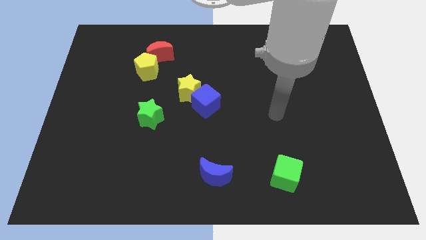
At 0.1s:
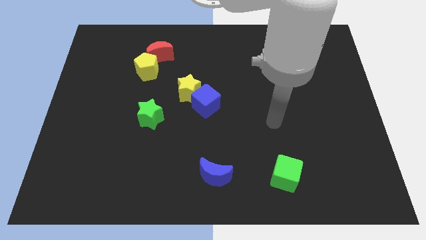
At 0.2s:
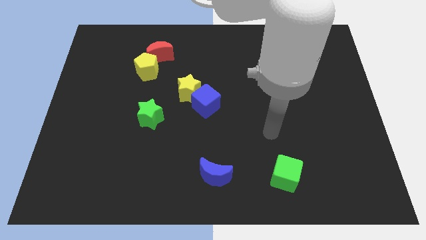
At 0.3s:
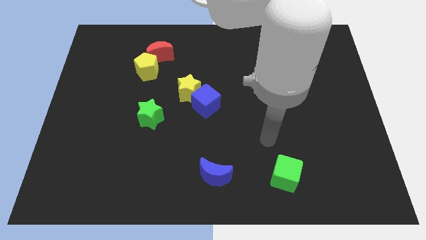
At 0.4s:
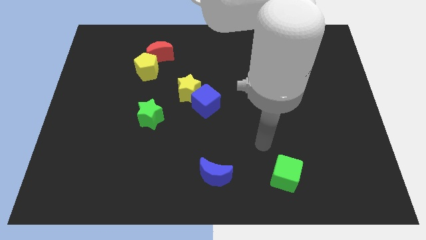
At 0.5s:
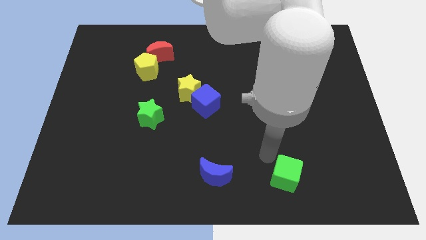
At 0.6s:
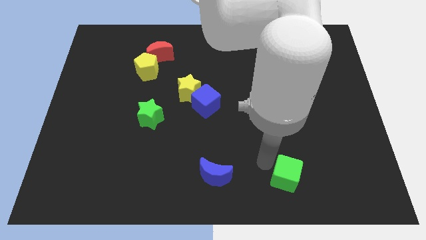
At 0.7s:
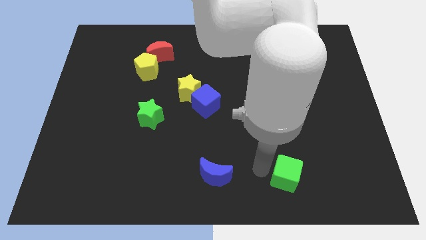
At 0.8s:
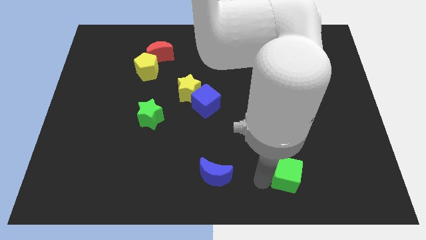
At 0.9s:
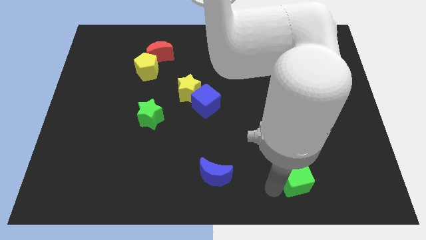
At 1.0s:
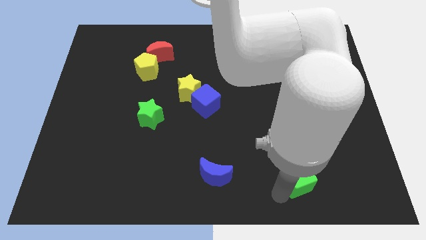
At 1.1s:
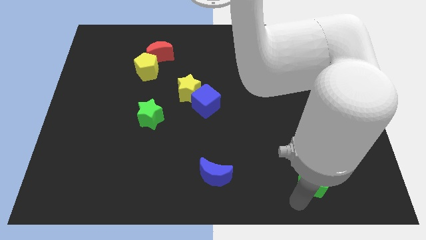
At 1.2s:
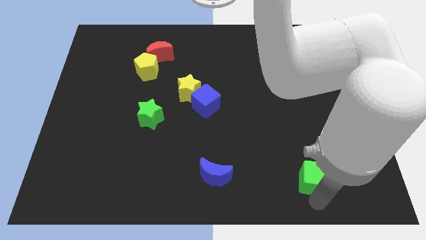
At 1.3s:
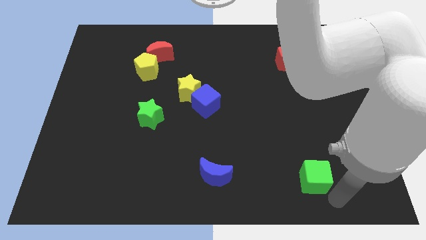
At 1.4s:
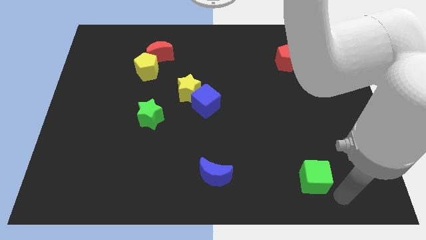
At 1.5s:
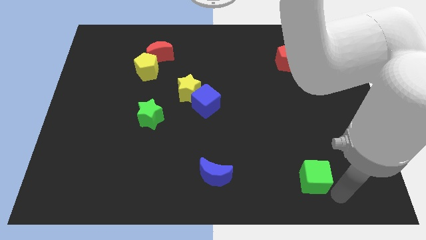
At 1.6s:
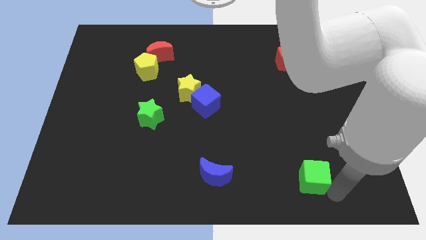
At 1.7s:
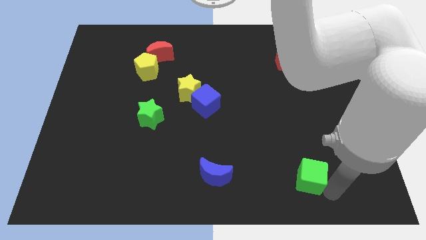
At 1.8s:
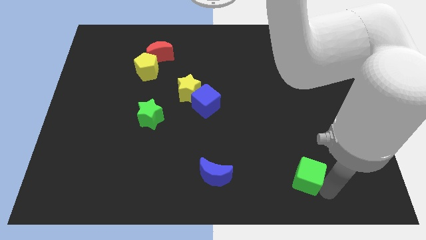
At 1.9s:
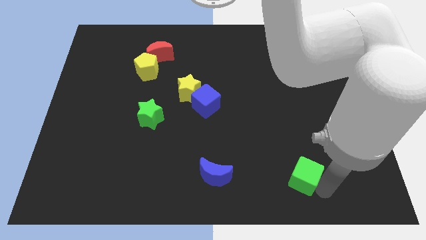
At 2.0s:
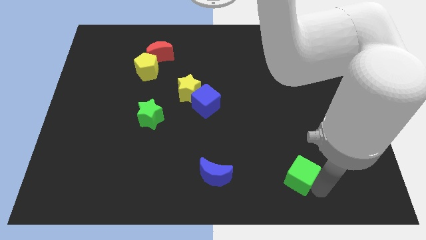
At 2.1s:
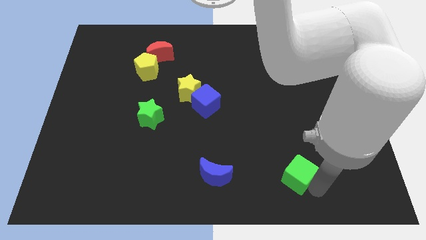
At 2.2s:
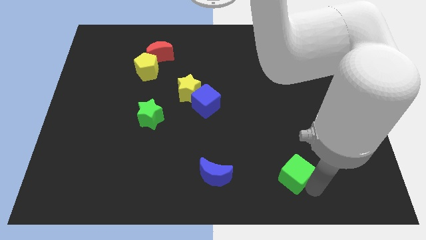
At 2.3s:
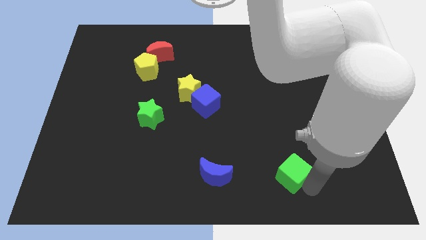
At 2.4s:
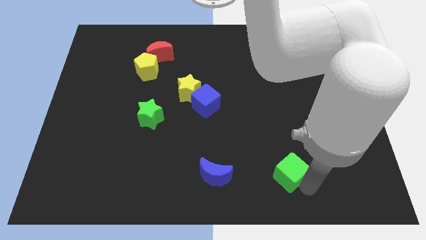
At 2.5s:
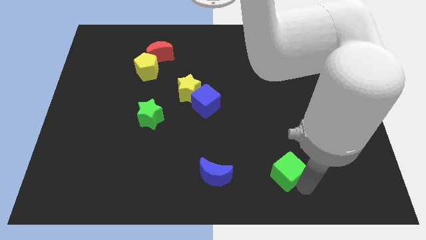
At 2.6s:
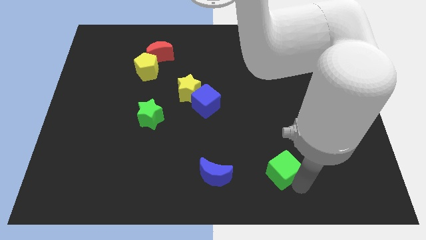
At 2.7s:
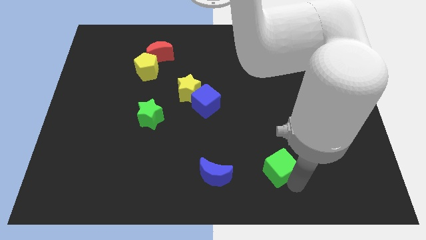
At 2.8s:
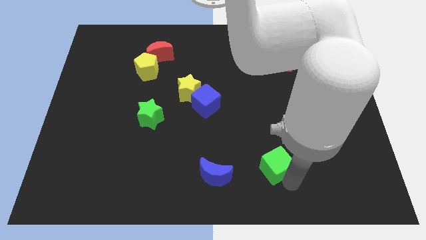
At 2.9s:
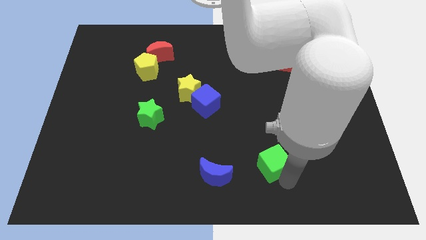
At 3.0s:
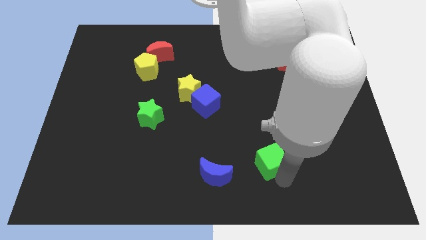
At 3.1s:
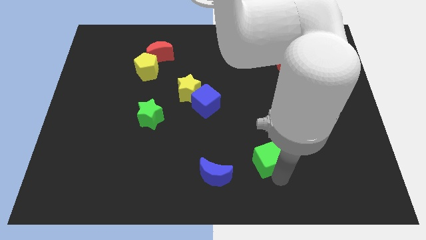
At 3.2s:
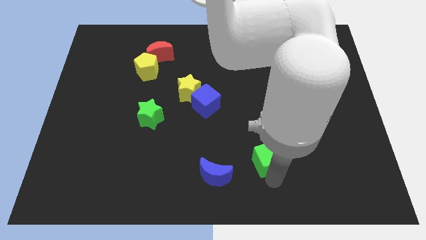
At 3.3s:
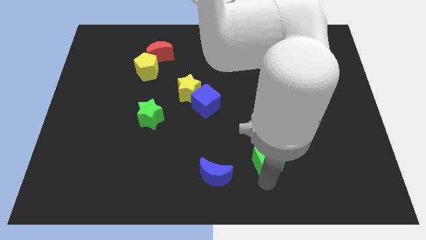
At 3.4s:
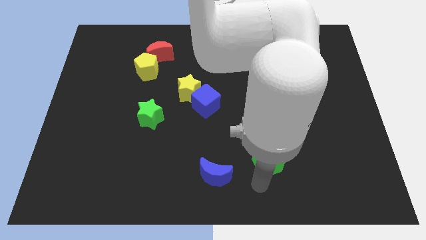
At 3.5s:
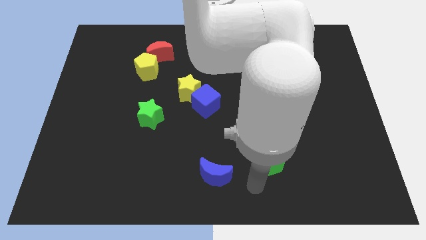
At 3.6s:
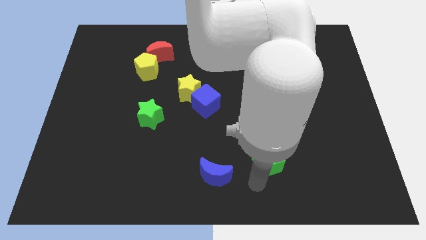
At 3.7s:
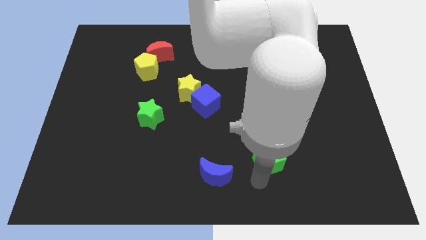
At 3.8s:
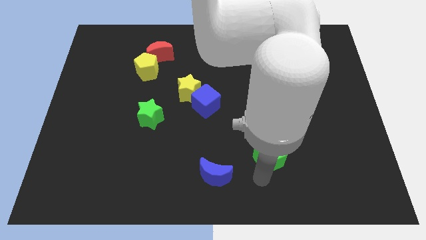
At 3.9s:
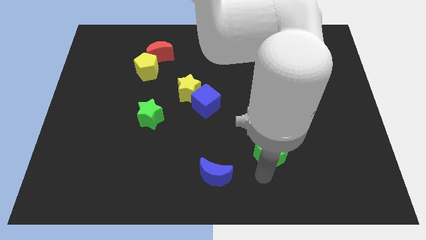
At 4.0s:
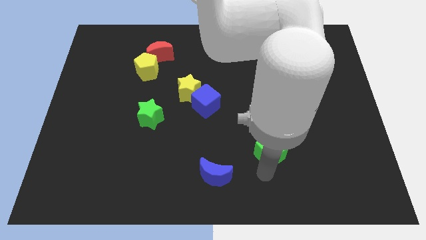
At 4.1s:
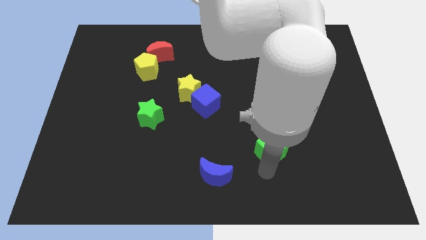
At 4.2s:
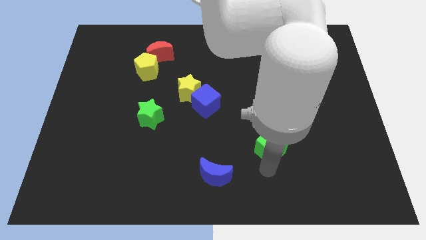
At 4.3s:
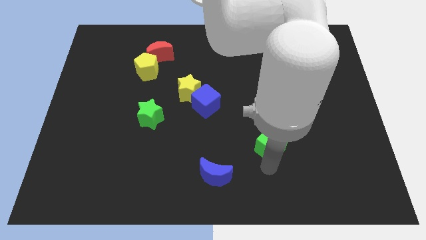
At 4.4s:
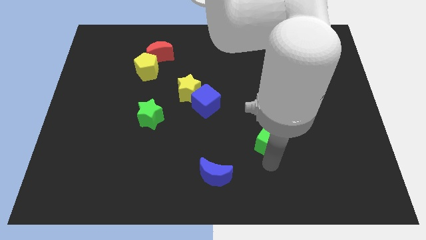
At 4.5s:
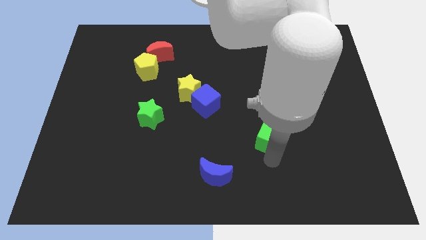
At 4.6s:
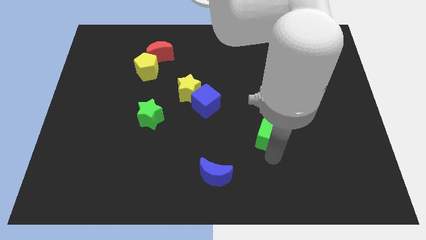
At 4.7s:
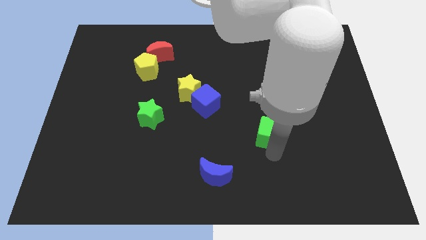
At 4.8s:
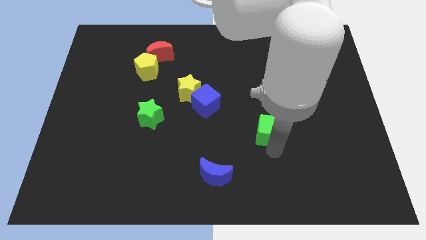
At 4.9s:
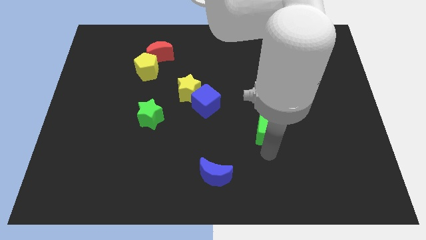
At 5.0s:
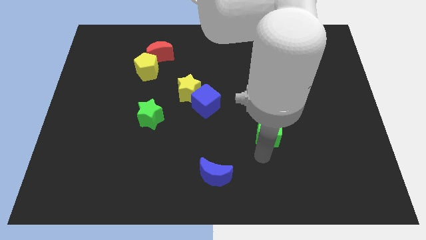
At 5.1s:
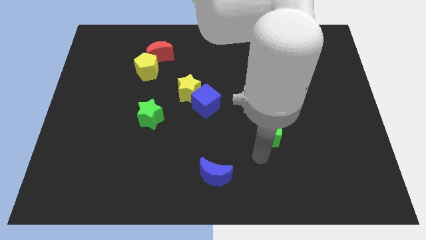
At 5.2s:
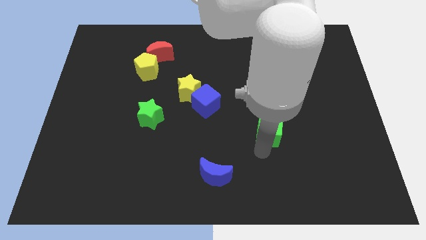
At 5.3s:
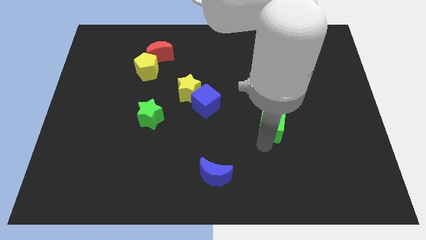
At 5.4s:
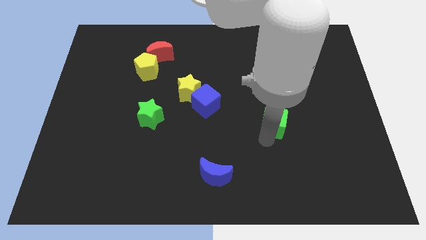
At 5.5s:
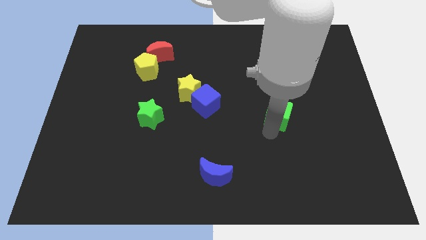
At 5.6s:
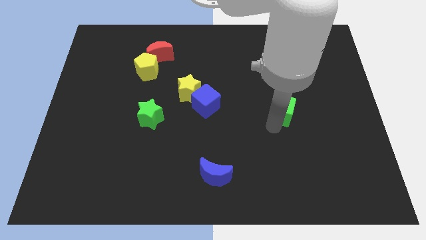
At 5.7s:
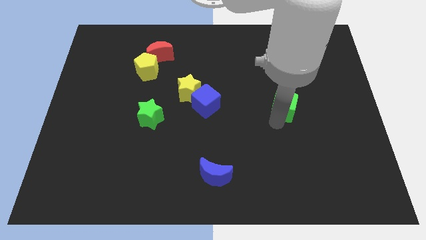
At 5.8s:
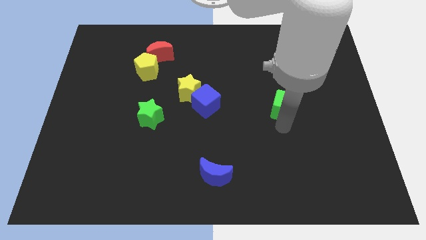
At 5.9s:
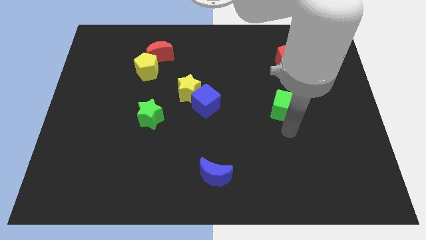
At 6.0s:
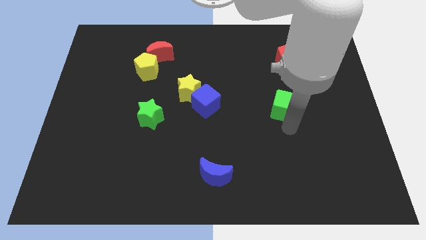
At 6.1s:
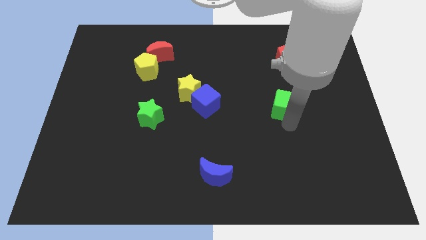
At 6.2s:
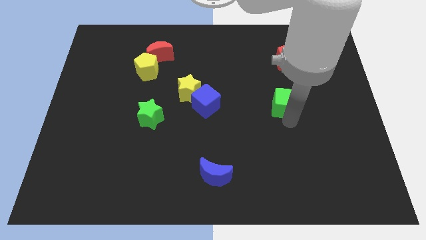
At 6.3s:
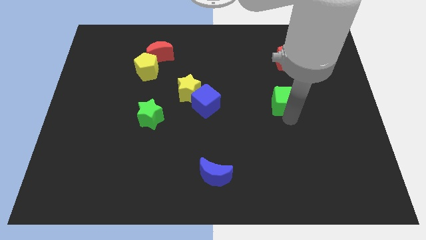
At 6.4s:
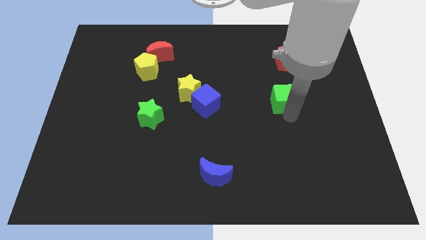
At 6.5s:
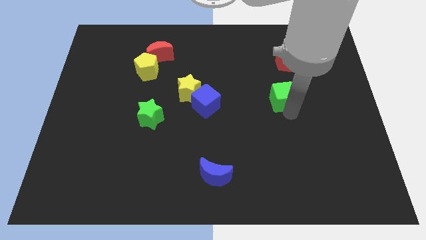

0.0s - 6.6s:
push the green cube upwards

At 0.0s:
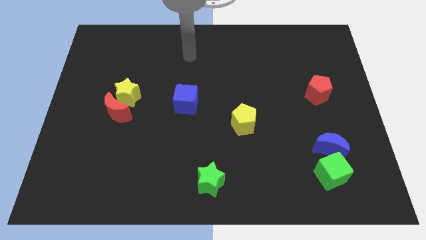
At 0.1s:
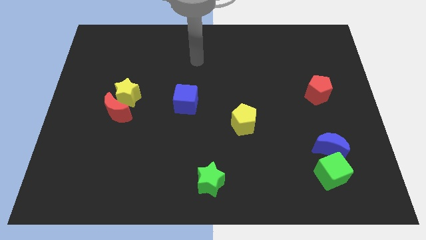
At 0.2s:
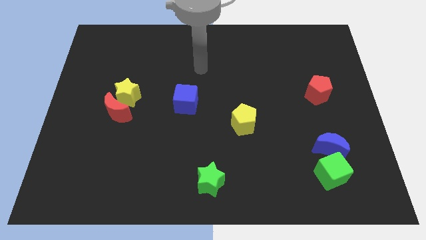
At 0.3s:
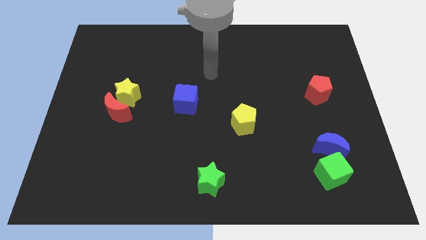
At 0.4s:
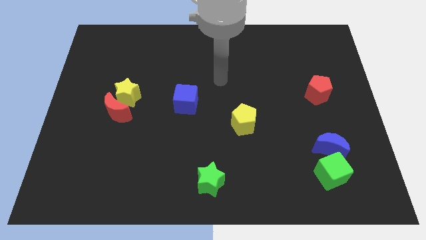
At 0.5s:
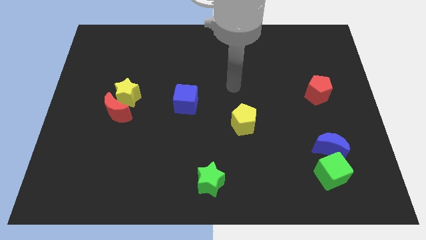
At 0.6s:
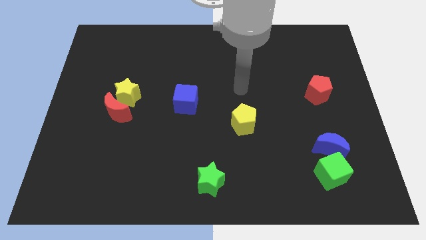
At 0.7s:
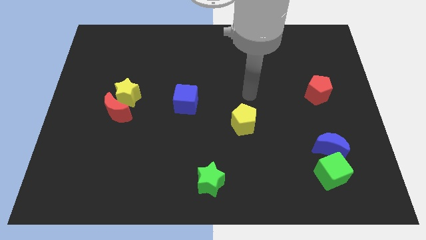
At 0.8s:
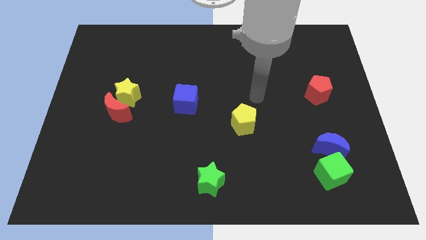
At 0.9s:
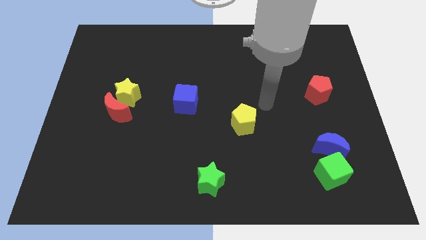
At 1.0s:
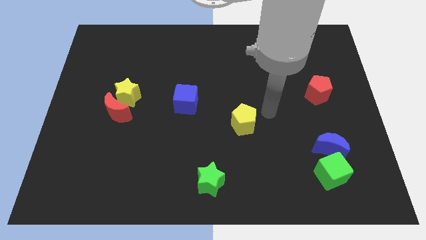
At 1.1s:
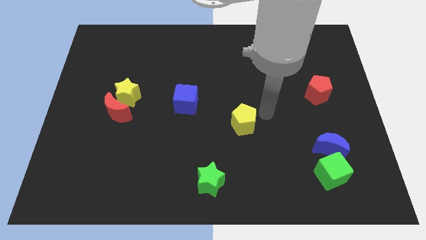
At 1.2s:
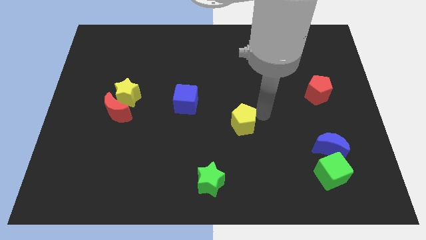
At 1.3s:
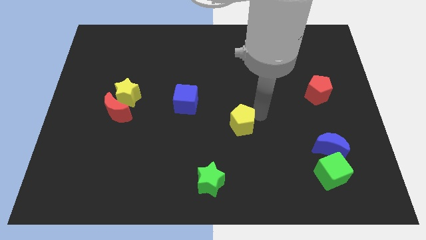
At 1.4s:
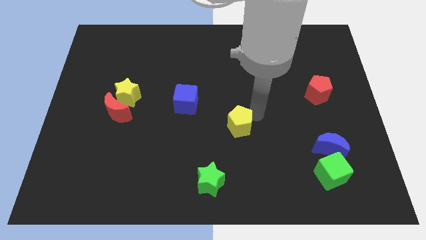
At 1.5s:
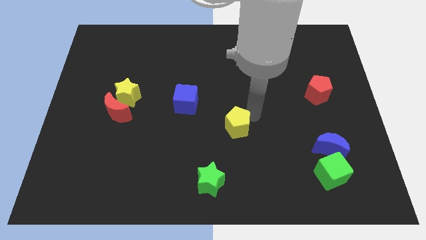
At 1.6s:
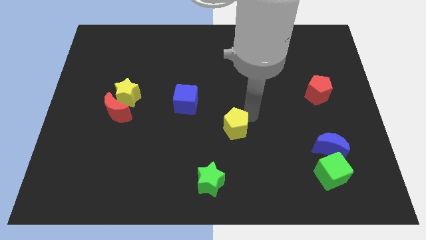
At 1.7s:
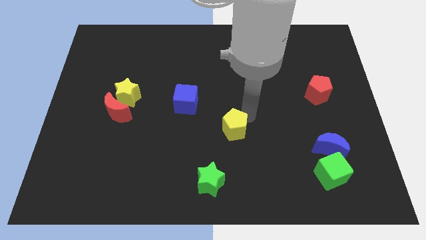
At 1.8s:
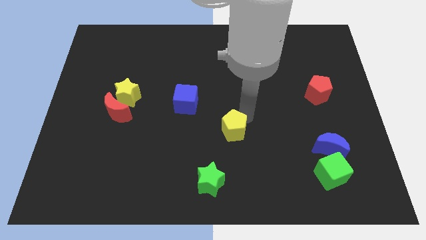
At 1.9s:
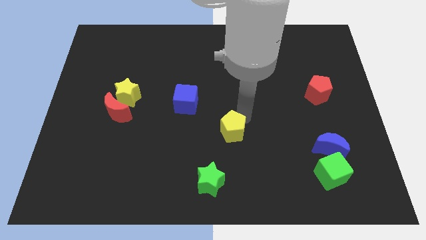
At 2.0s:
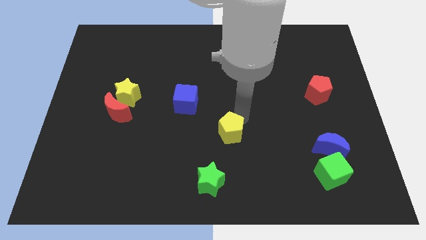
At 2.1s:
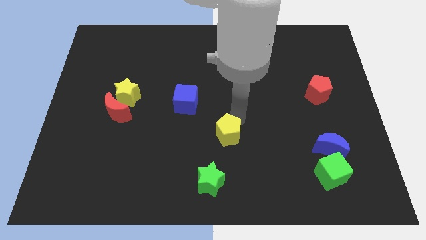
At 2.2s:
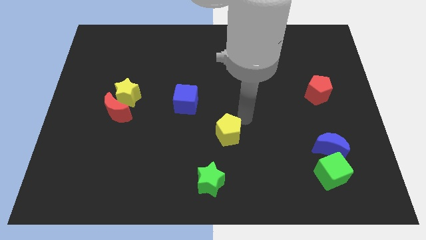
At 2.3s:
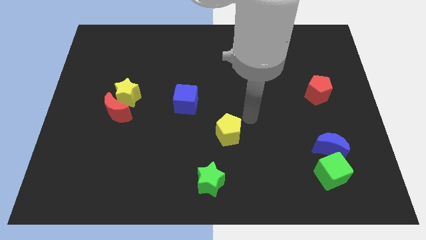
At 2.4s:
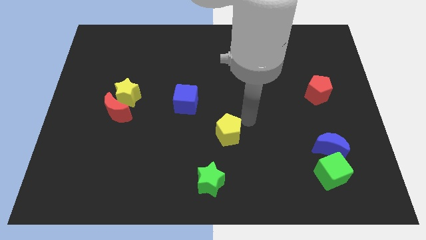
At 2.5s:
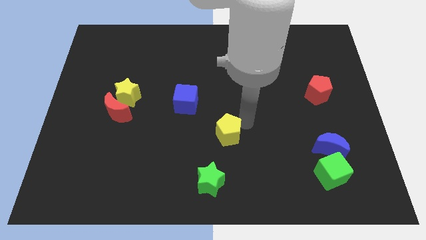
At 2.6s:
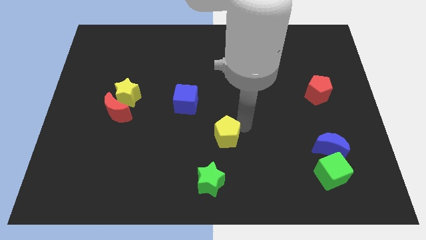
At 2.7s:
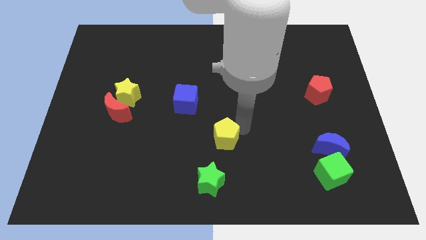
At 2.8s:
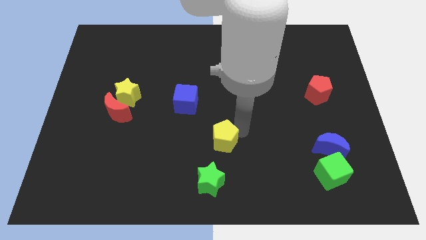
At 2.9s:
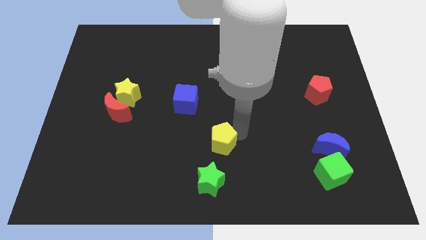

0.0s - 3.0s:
slightly slide the yellow pentagon diagonally downwards and to the left
